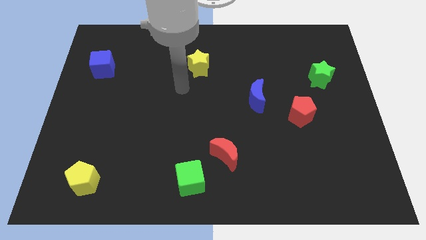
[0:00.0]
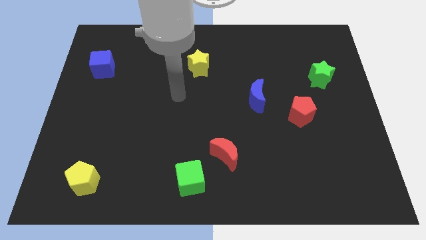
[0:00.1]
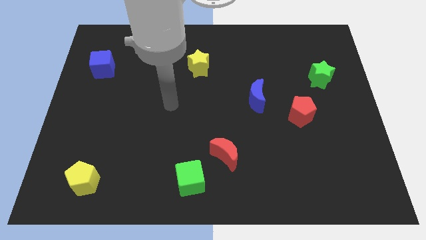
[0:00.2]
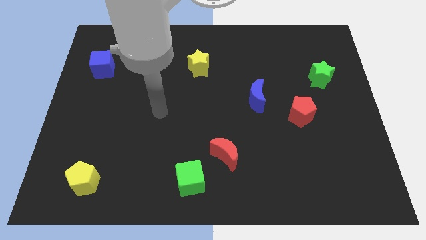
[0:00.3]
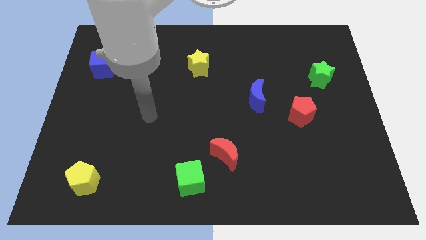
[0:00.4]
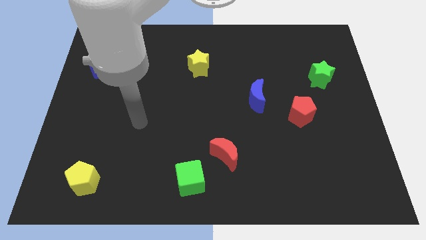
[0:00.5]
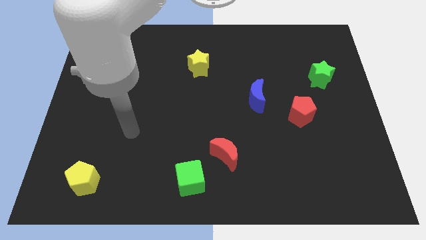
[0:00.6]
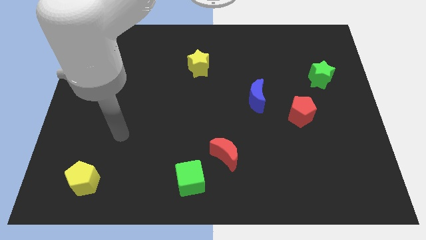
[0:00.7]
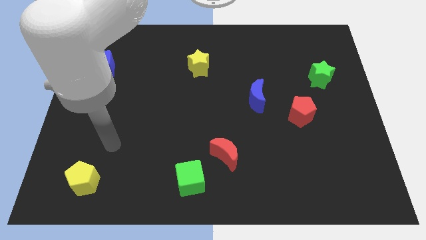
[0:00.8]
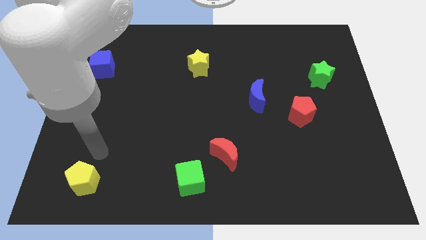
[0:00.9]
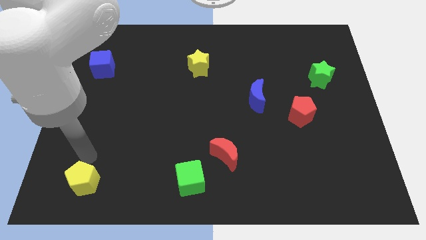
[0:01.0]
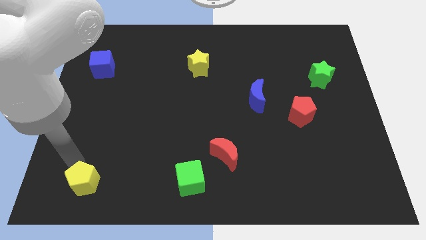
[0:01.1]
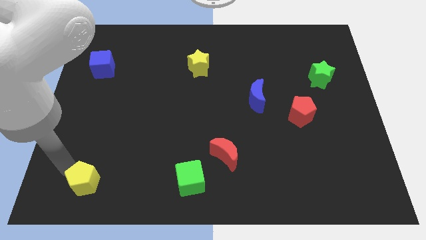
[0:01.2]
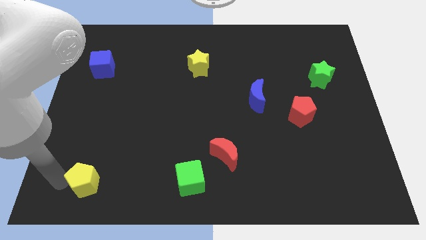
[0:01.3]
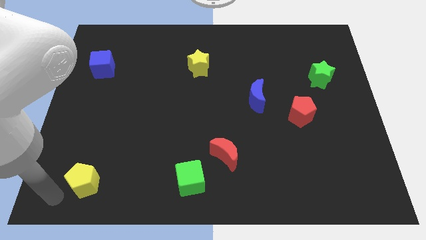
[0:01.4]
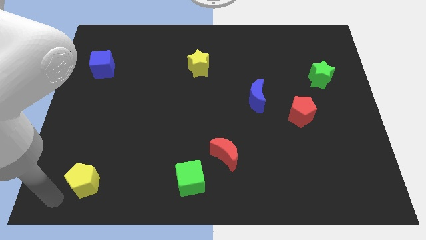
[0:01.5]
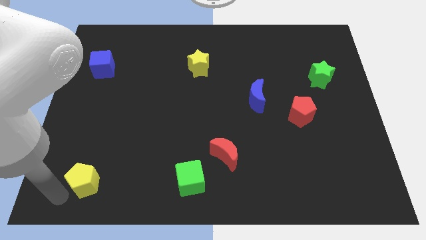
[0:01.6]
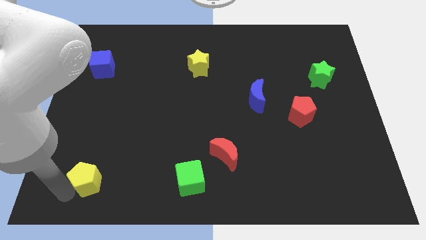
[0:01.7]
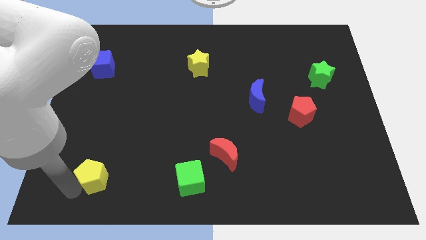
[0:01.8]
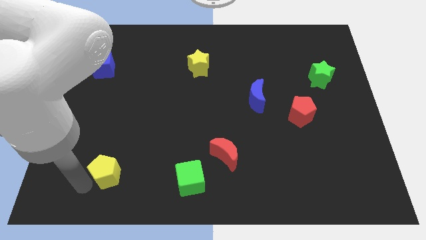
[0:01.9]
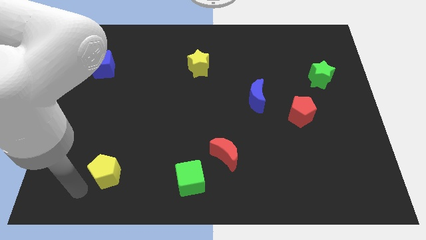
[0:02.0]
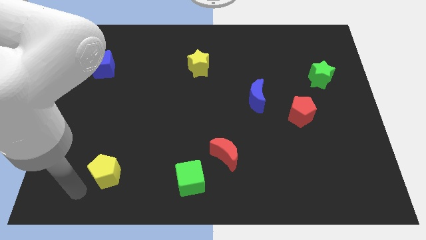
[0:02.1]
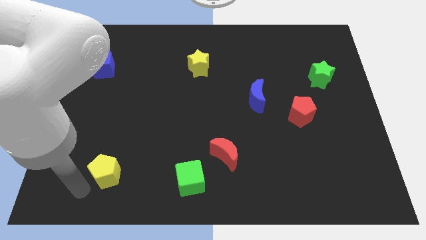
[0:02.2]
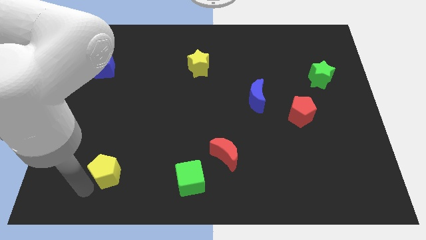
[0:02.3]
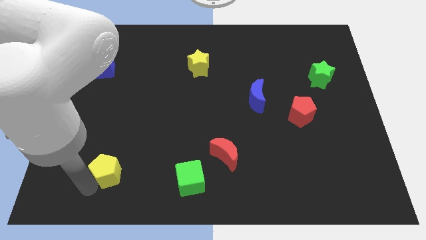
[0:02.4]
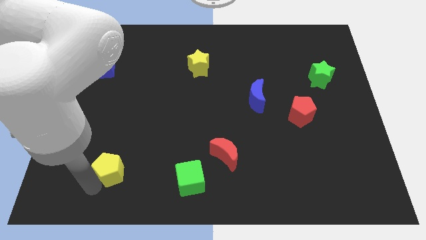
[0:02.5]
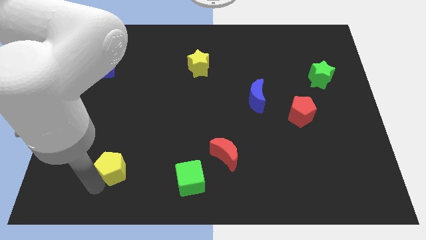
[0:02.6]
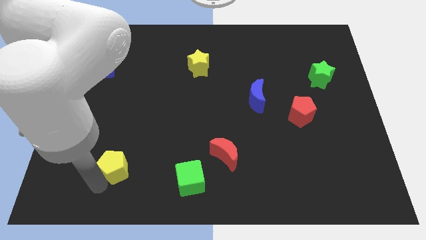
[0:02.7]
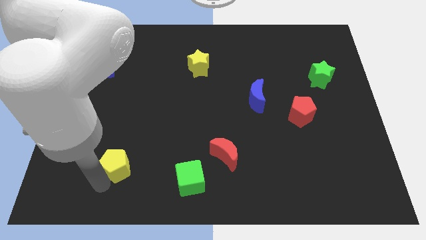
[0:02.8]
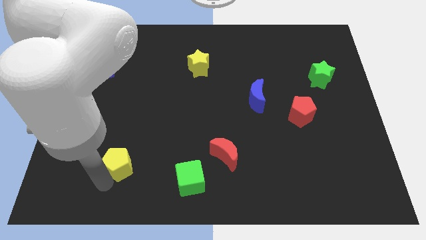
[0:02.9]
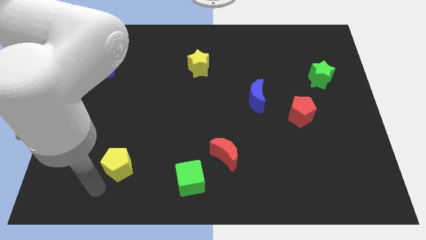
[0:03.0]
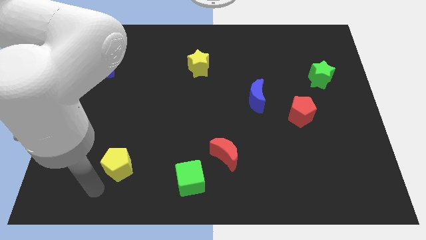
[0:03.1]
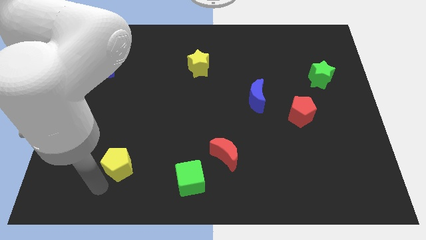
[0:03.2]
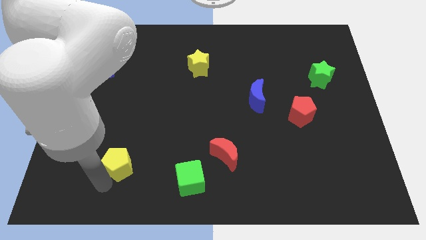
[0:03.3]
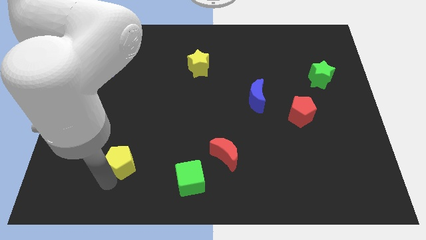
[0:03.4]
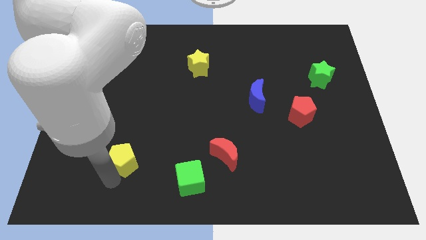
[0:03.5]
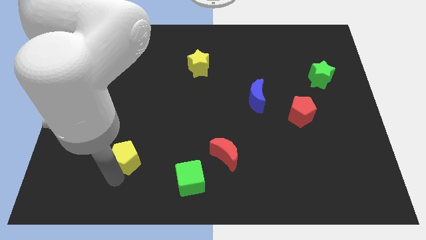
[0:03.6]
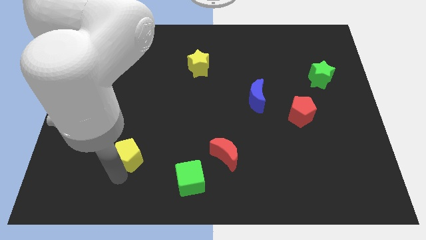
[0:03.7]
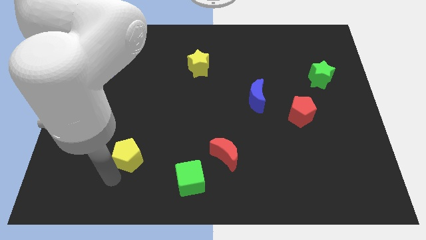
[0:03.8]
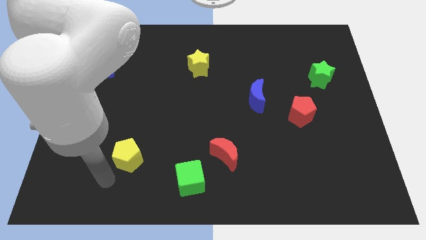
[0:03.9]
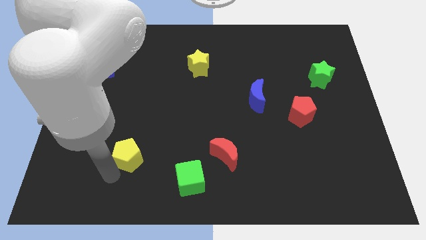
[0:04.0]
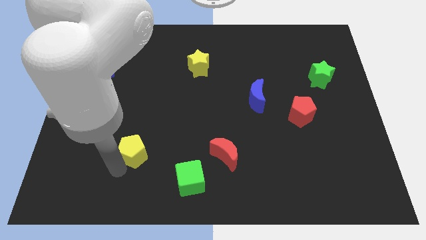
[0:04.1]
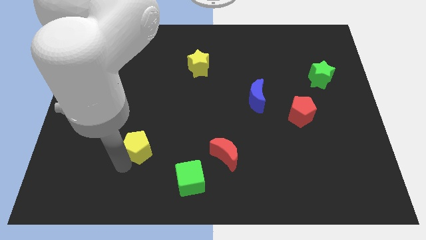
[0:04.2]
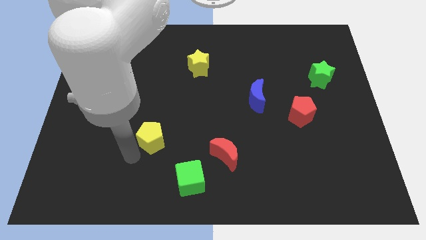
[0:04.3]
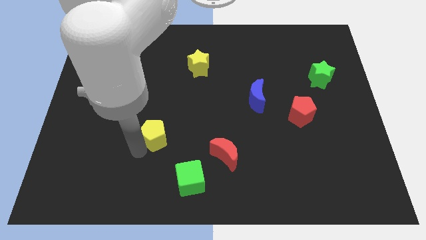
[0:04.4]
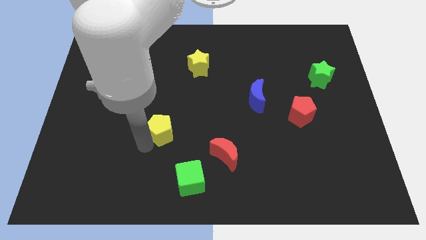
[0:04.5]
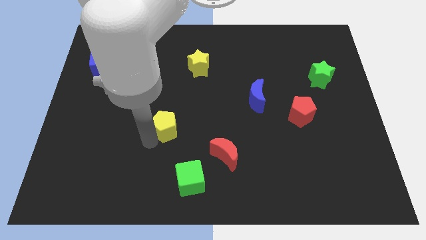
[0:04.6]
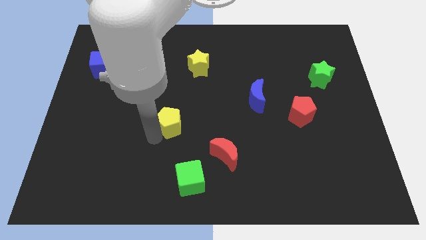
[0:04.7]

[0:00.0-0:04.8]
push the yellow pentagon to the middle

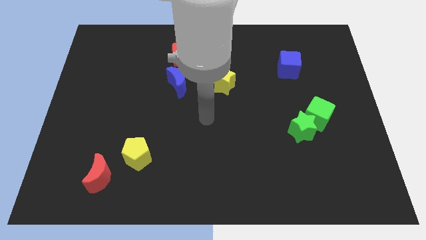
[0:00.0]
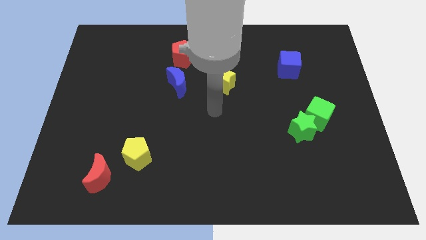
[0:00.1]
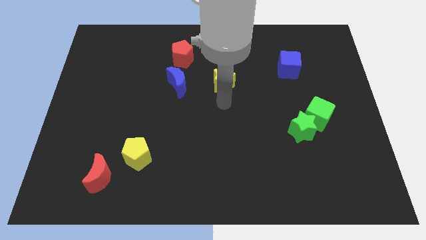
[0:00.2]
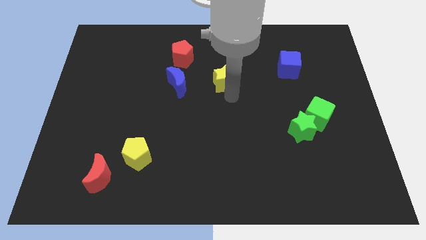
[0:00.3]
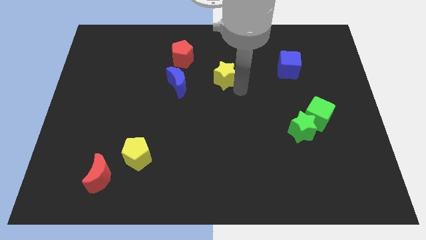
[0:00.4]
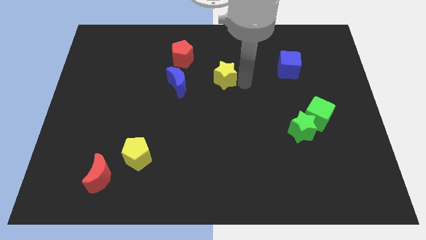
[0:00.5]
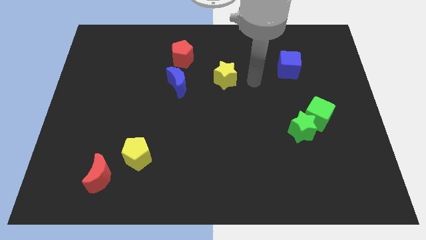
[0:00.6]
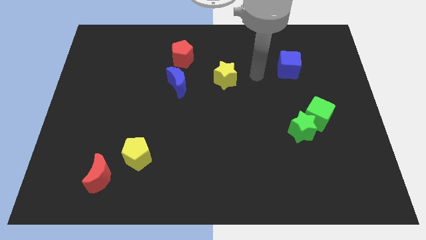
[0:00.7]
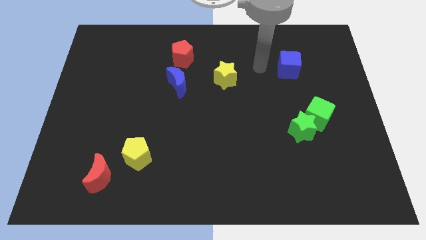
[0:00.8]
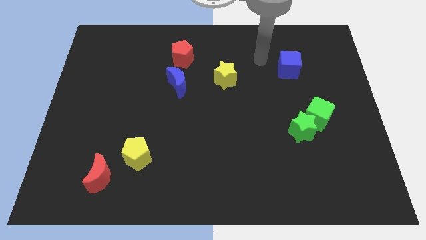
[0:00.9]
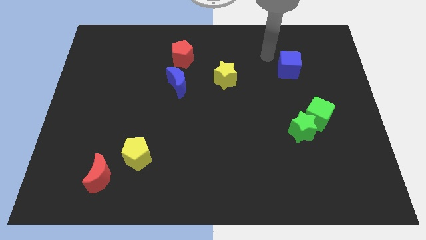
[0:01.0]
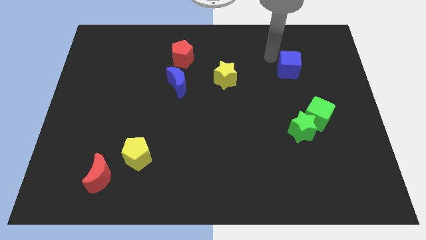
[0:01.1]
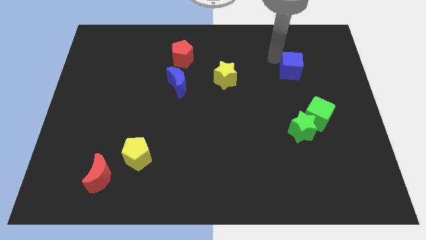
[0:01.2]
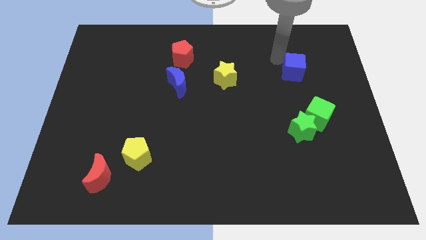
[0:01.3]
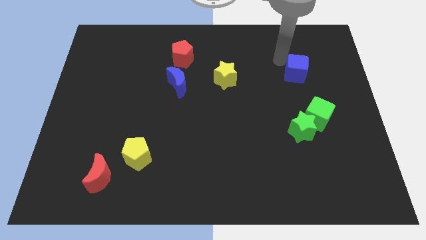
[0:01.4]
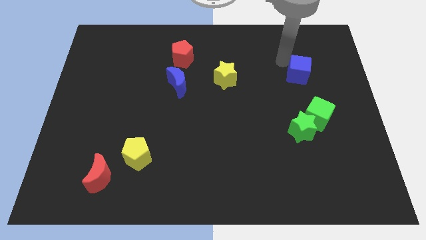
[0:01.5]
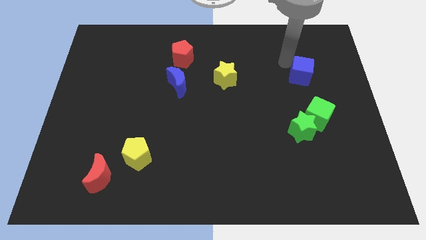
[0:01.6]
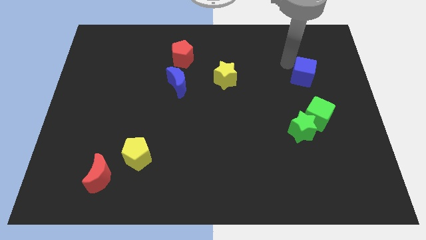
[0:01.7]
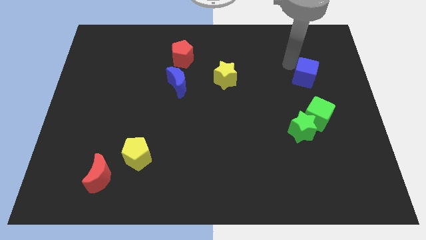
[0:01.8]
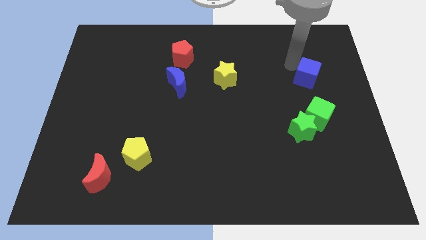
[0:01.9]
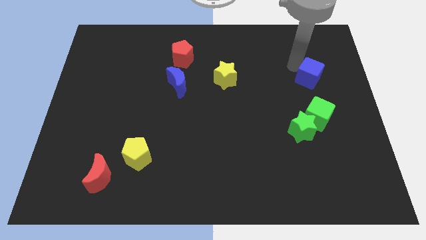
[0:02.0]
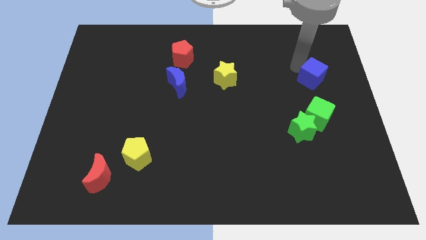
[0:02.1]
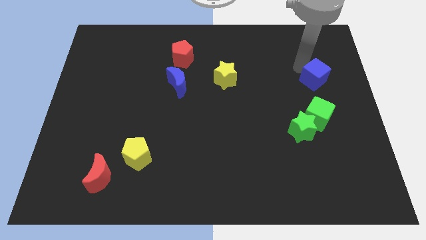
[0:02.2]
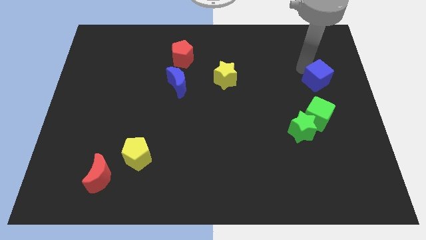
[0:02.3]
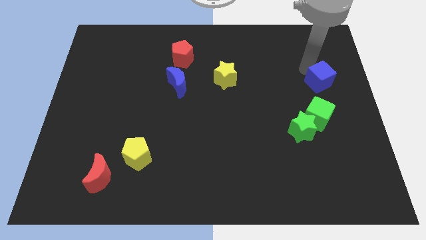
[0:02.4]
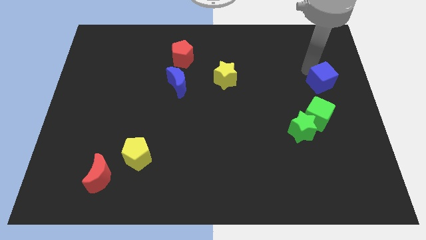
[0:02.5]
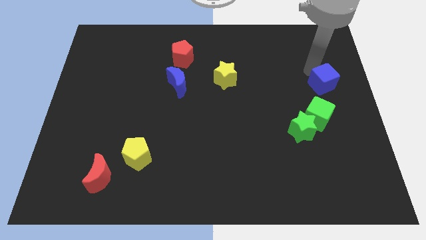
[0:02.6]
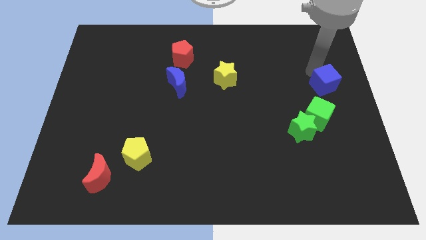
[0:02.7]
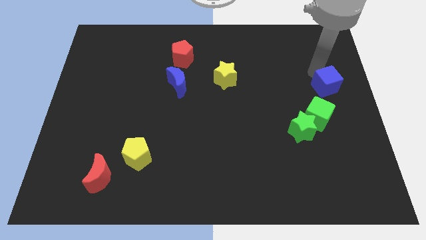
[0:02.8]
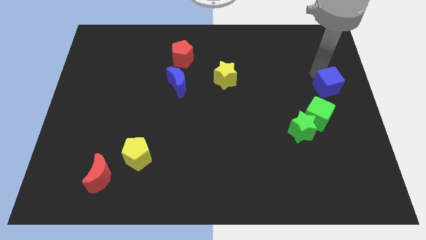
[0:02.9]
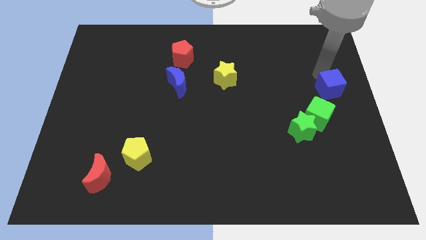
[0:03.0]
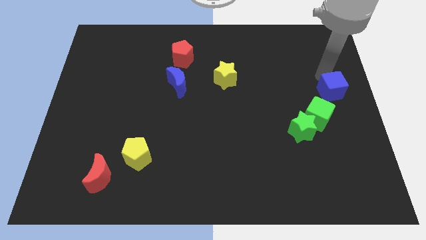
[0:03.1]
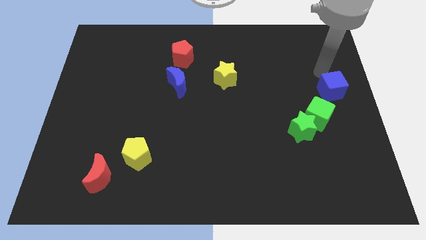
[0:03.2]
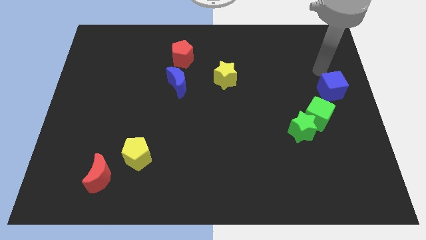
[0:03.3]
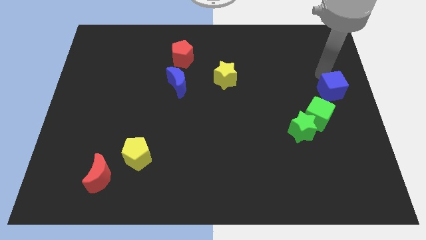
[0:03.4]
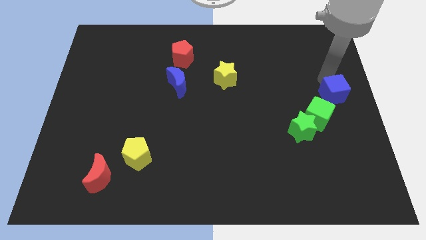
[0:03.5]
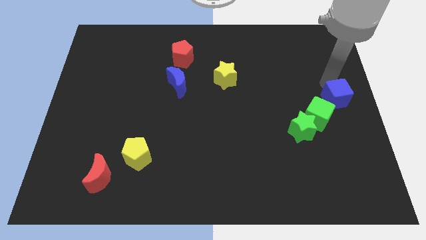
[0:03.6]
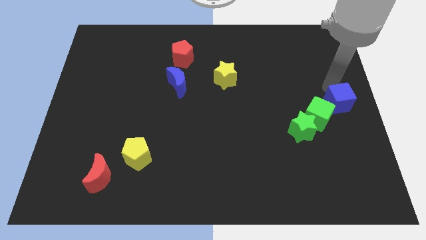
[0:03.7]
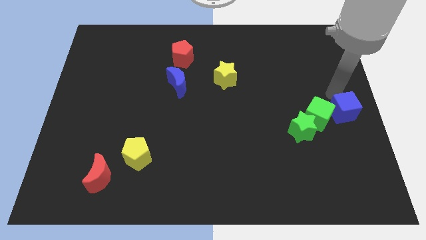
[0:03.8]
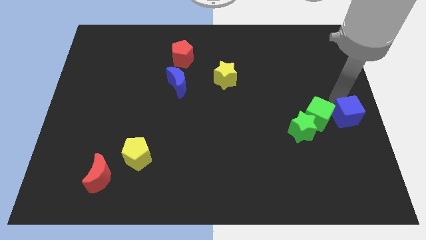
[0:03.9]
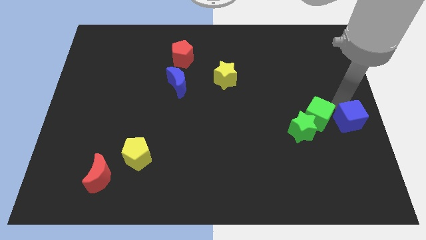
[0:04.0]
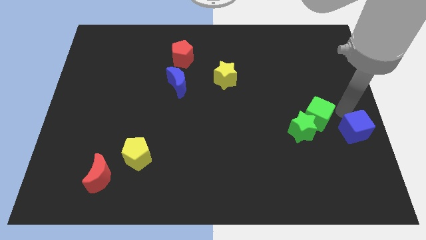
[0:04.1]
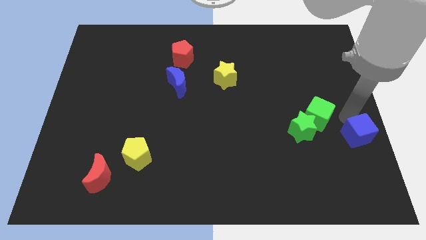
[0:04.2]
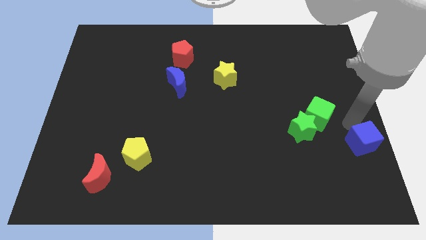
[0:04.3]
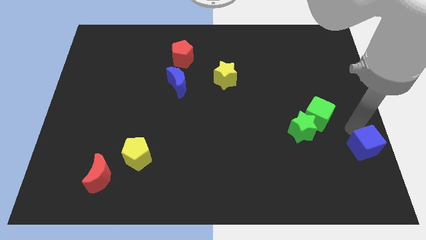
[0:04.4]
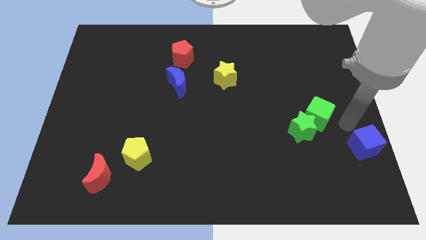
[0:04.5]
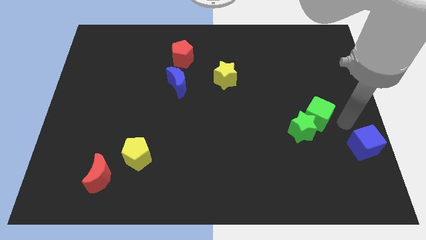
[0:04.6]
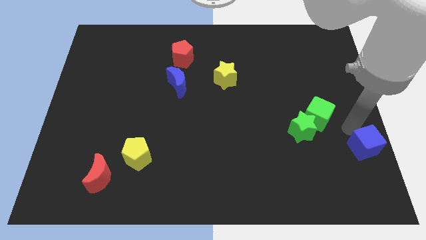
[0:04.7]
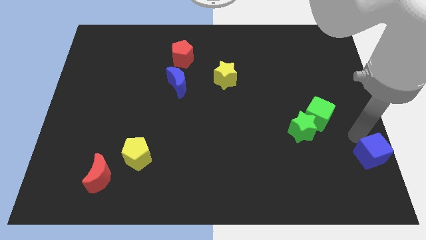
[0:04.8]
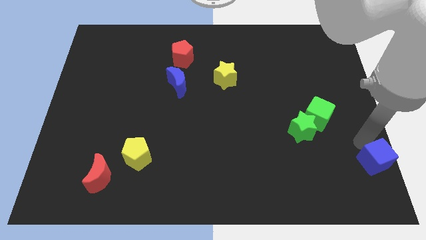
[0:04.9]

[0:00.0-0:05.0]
move the blue cube to the bottom right corner
